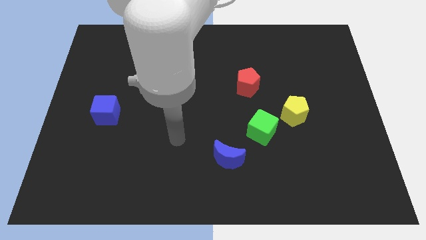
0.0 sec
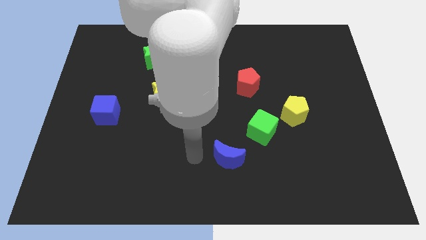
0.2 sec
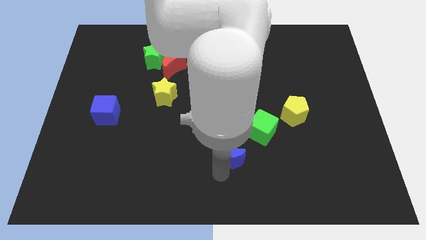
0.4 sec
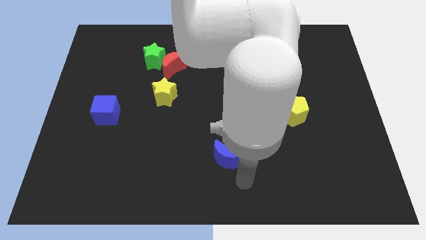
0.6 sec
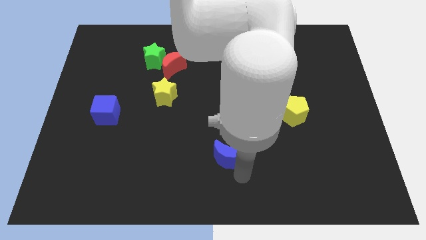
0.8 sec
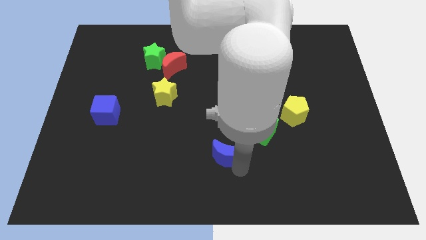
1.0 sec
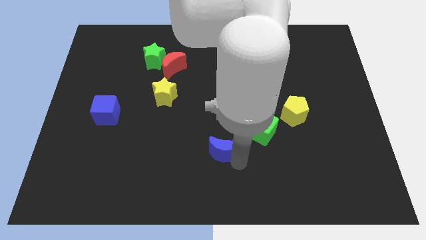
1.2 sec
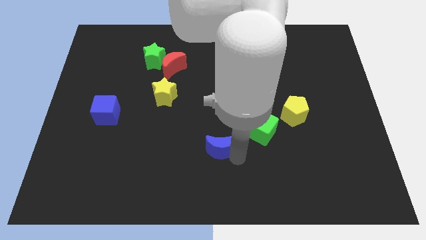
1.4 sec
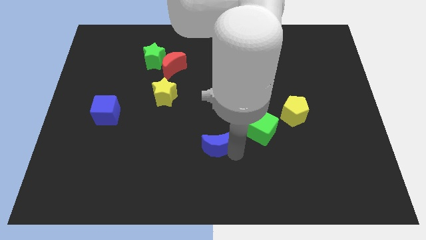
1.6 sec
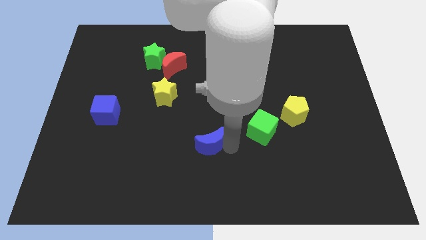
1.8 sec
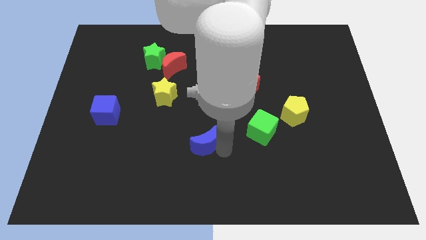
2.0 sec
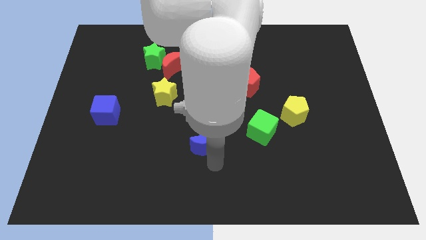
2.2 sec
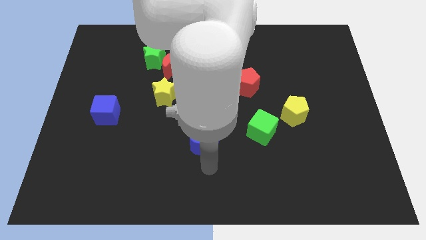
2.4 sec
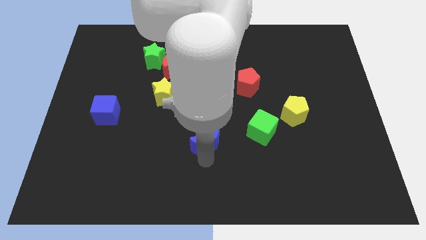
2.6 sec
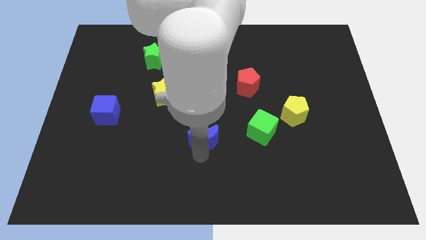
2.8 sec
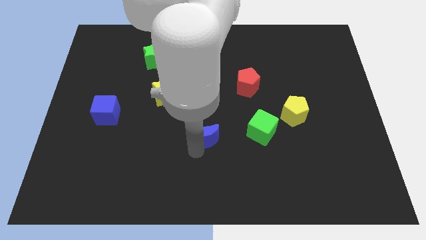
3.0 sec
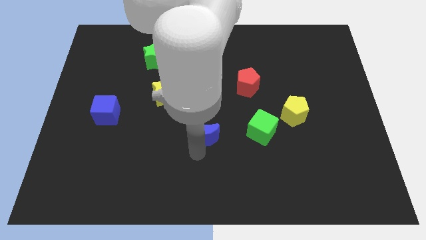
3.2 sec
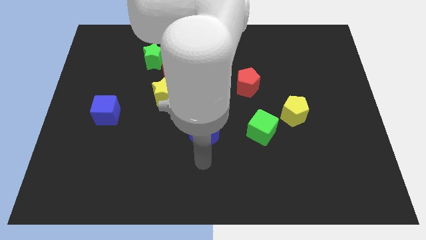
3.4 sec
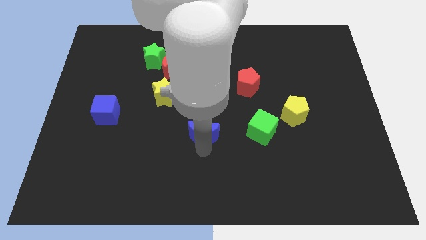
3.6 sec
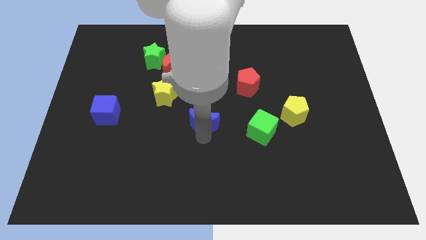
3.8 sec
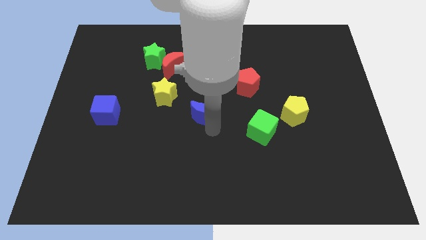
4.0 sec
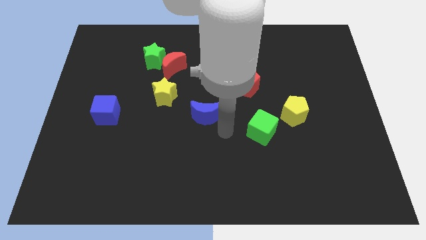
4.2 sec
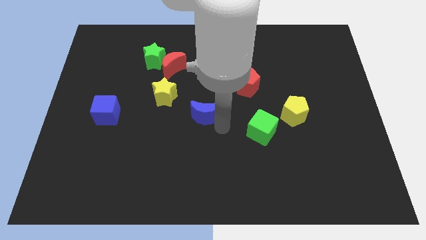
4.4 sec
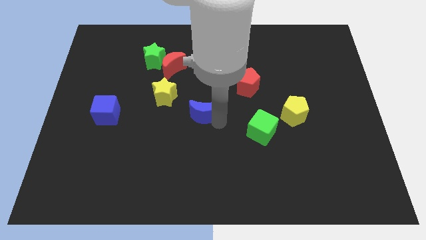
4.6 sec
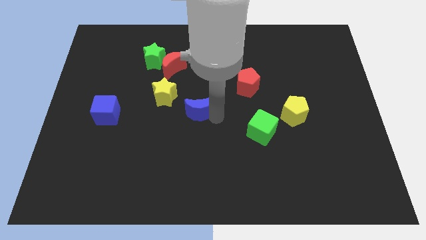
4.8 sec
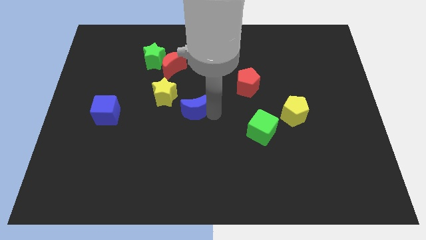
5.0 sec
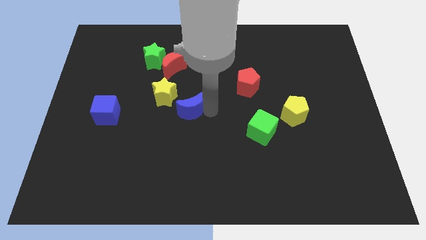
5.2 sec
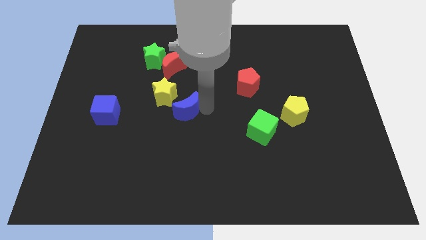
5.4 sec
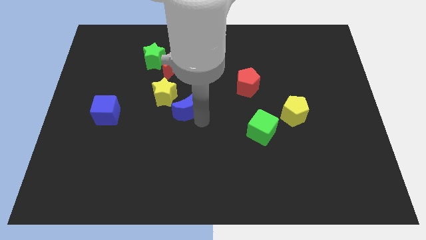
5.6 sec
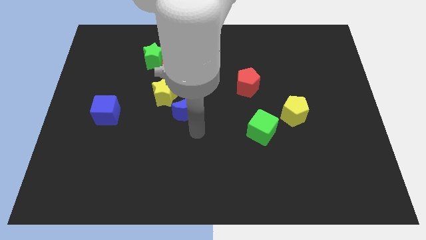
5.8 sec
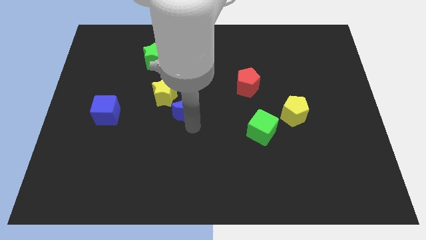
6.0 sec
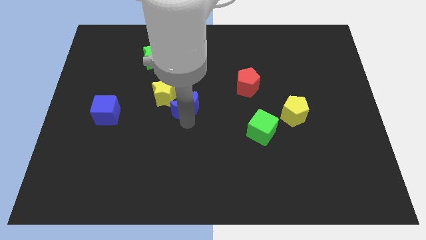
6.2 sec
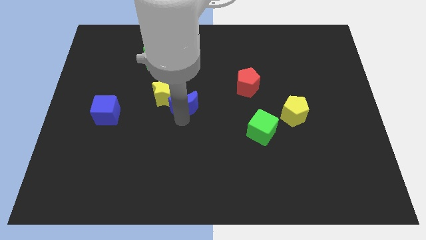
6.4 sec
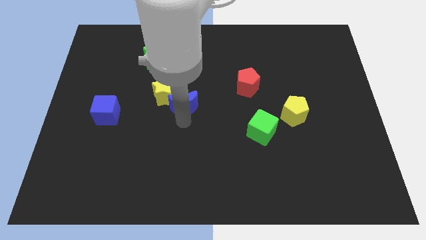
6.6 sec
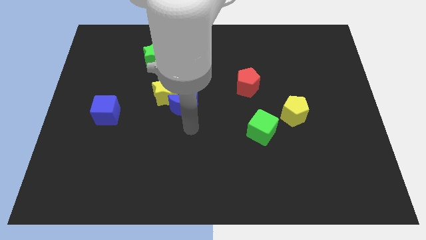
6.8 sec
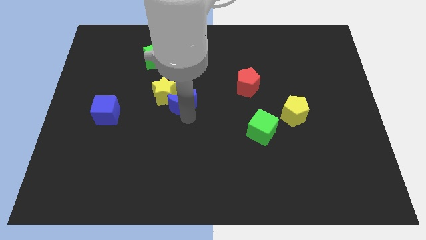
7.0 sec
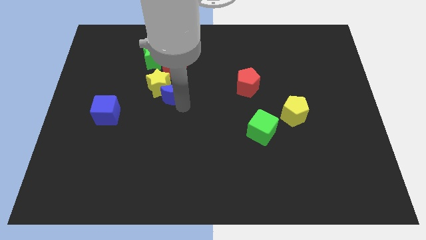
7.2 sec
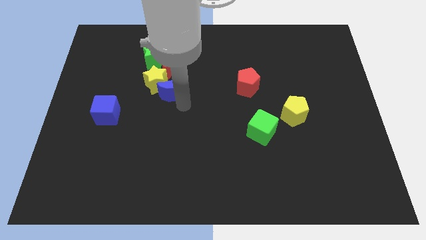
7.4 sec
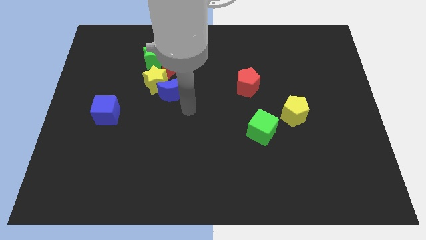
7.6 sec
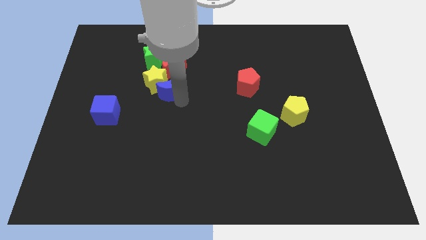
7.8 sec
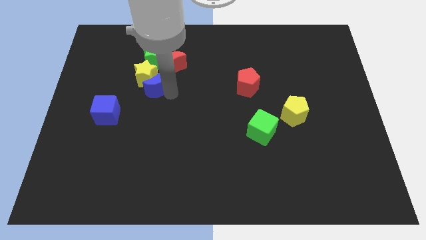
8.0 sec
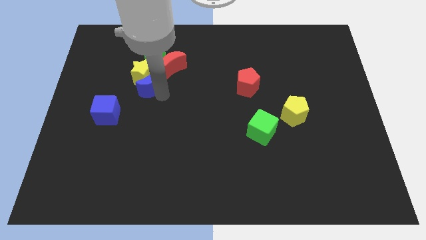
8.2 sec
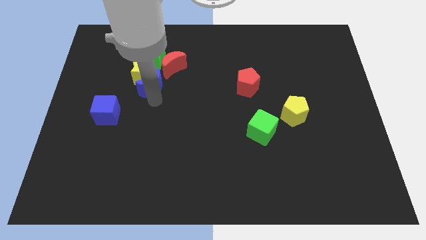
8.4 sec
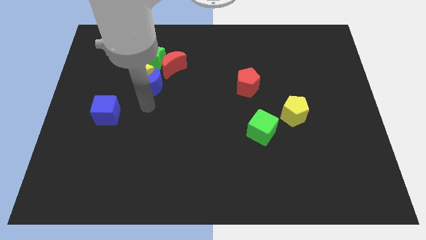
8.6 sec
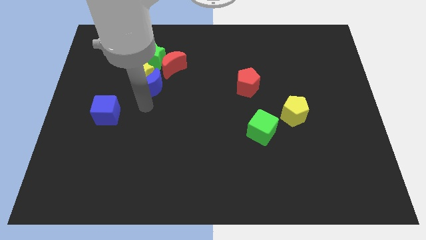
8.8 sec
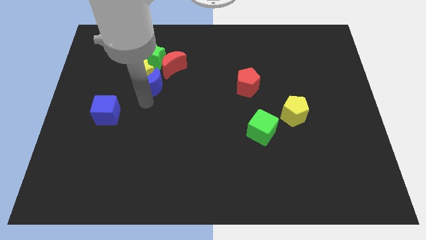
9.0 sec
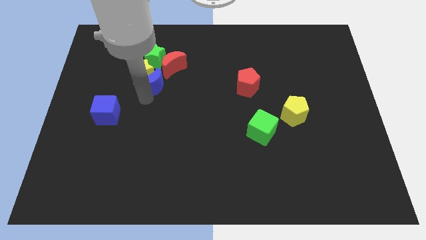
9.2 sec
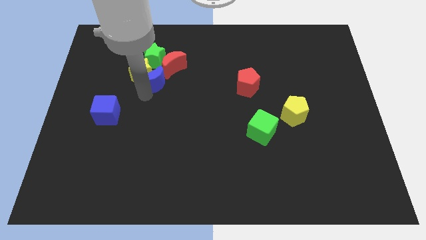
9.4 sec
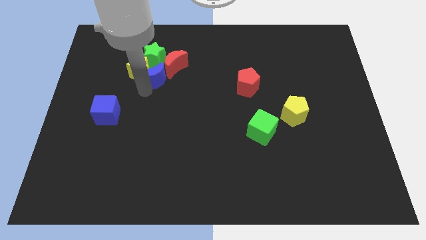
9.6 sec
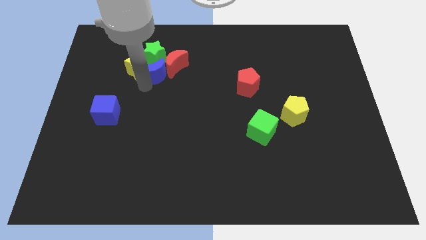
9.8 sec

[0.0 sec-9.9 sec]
push the blue moon next to the green star

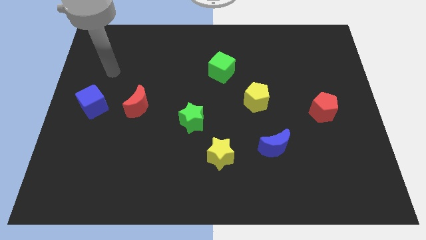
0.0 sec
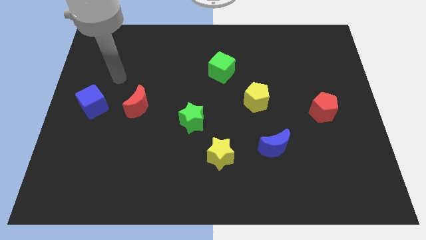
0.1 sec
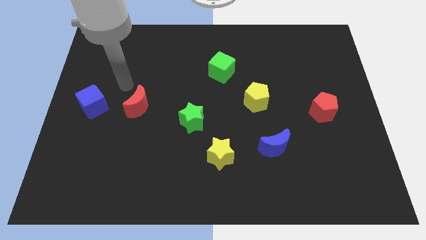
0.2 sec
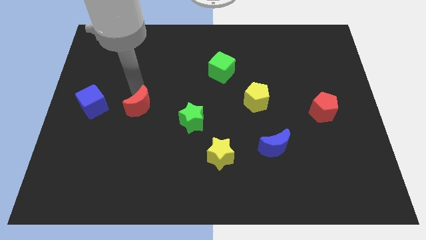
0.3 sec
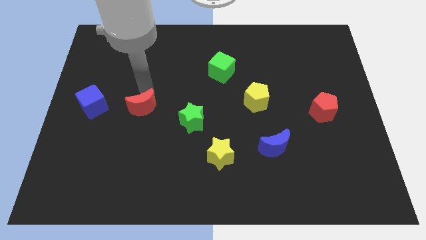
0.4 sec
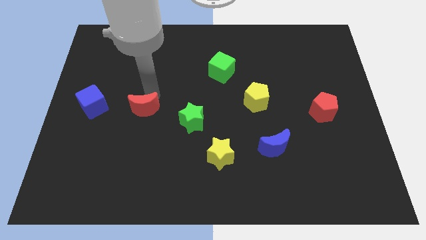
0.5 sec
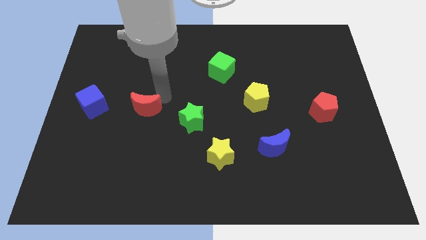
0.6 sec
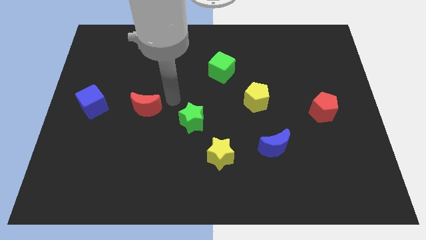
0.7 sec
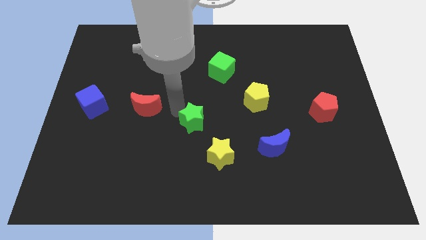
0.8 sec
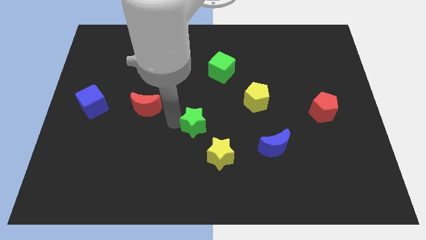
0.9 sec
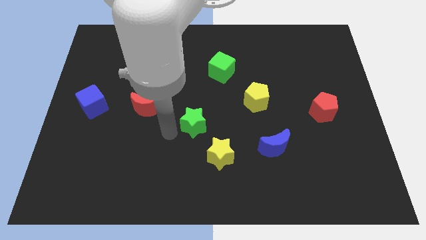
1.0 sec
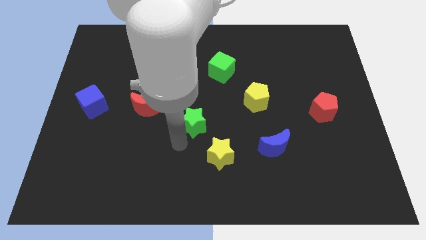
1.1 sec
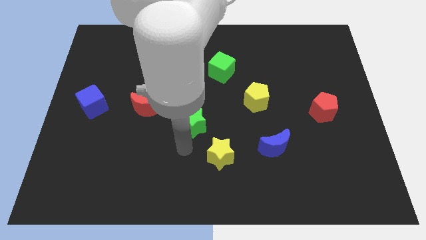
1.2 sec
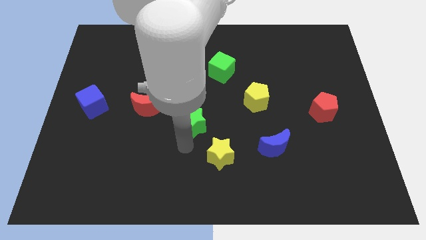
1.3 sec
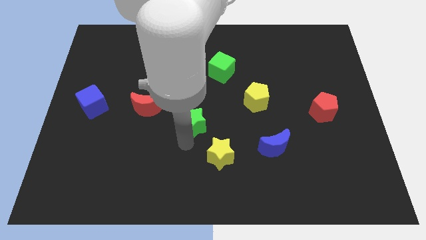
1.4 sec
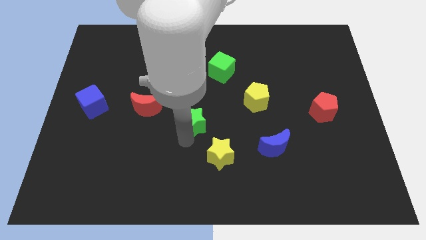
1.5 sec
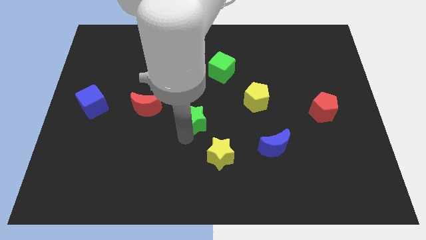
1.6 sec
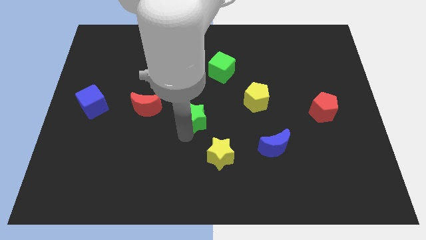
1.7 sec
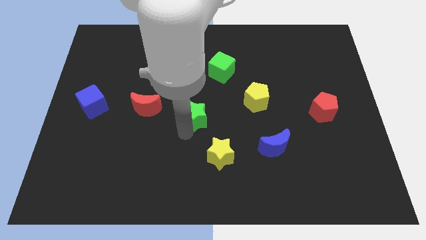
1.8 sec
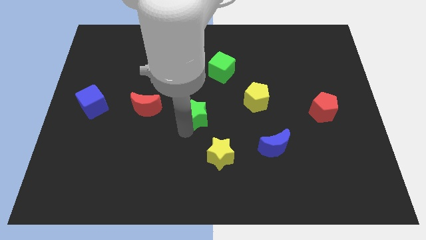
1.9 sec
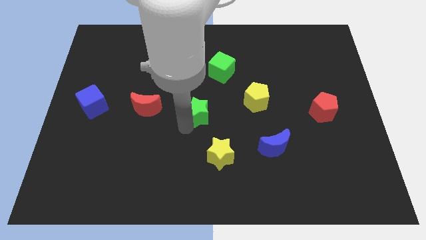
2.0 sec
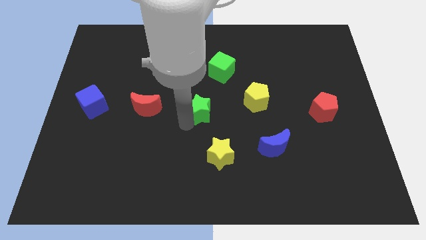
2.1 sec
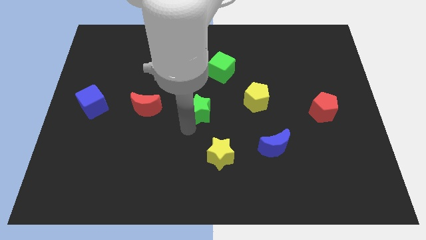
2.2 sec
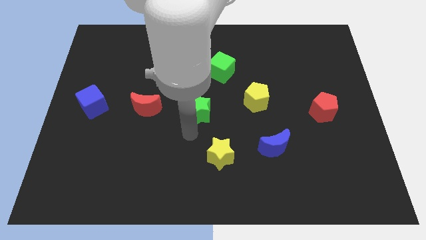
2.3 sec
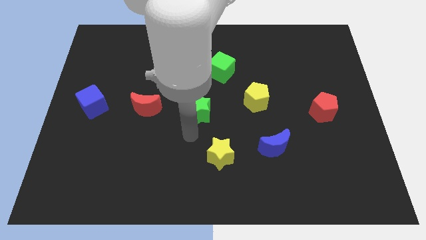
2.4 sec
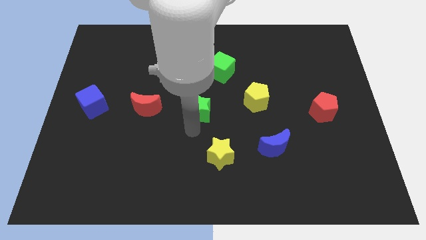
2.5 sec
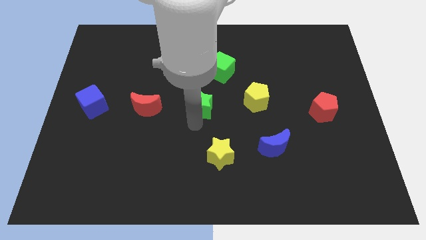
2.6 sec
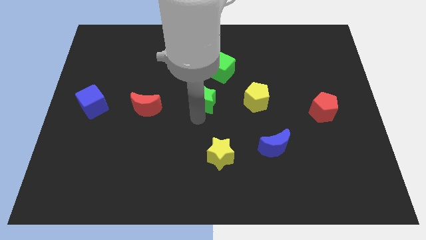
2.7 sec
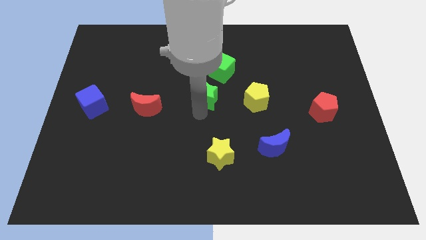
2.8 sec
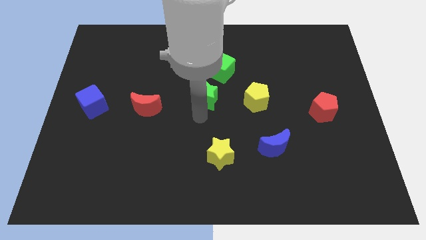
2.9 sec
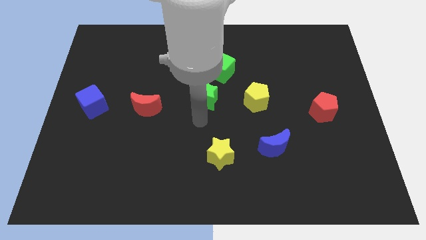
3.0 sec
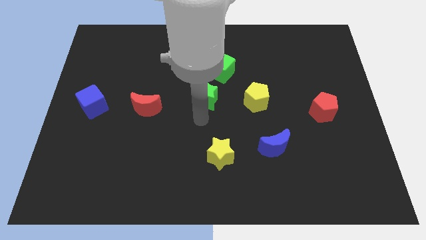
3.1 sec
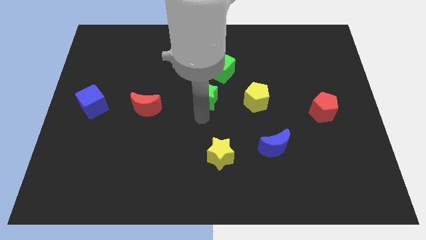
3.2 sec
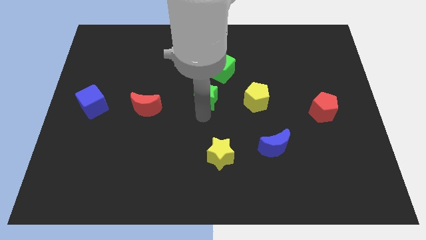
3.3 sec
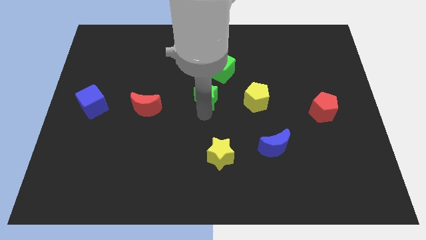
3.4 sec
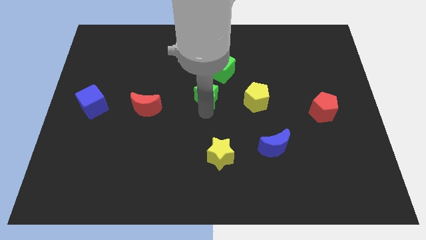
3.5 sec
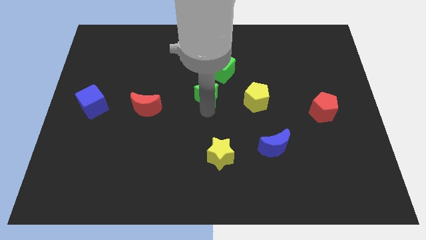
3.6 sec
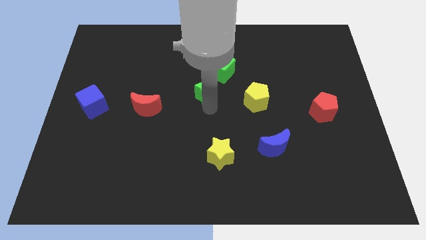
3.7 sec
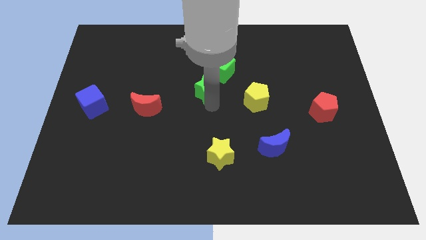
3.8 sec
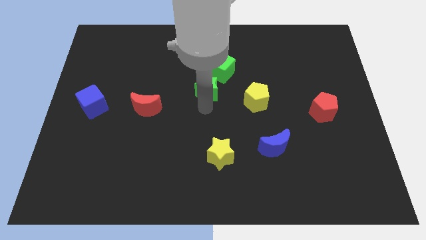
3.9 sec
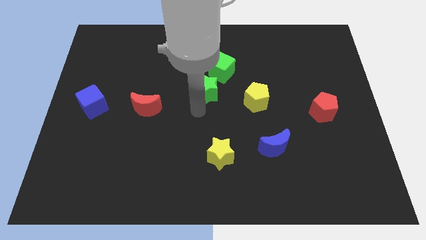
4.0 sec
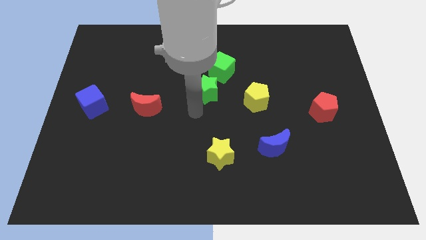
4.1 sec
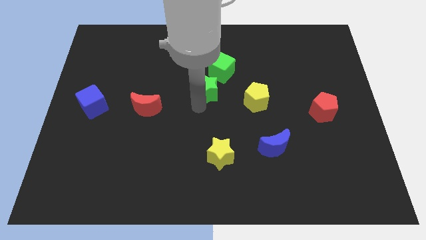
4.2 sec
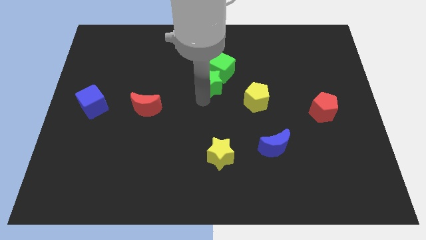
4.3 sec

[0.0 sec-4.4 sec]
push the green star close to the green cube
